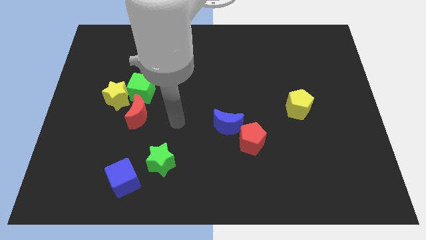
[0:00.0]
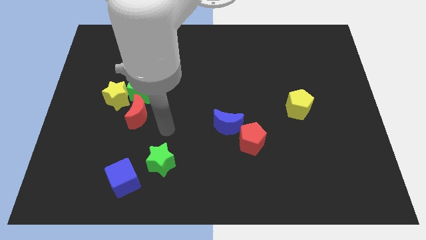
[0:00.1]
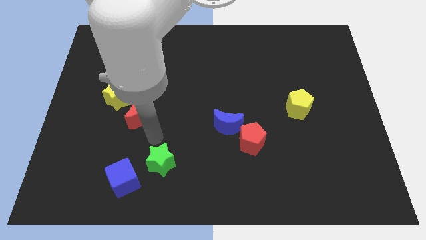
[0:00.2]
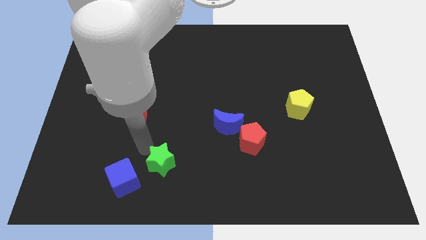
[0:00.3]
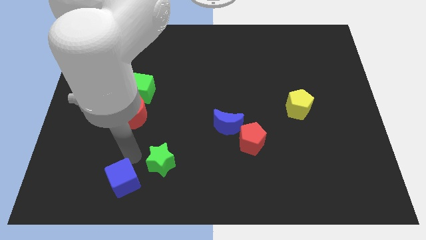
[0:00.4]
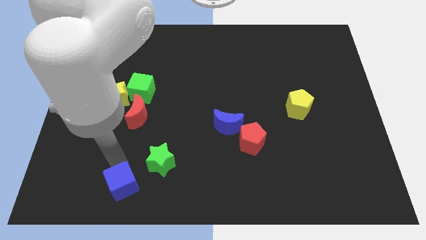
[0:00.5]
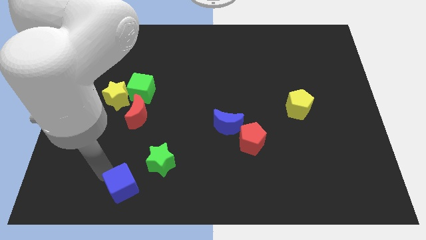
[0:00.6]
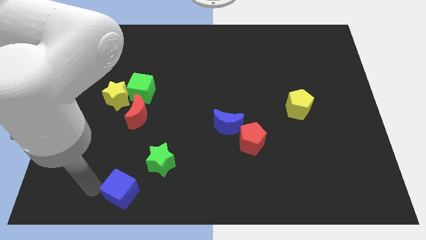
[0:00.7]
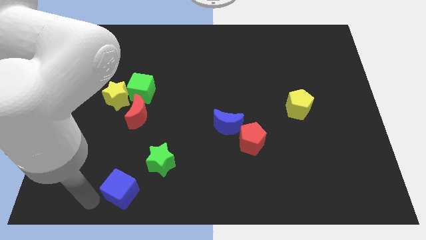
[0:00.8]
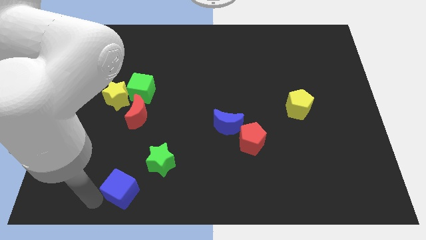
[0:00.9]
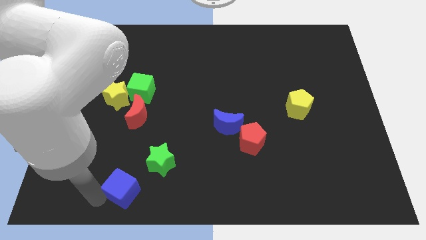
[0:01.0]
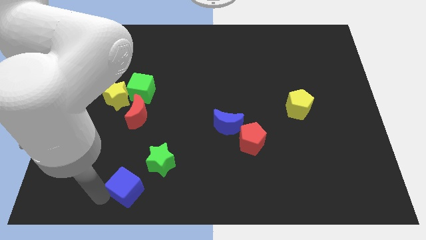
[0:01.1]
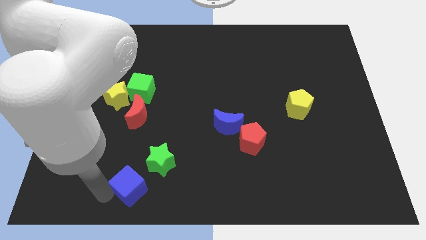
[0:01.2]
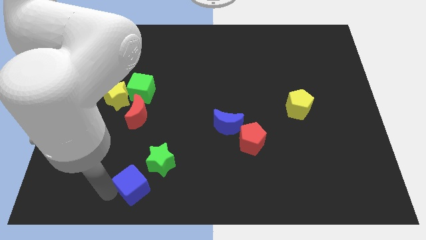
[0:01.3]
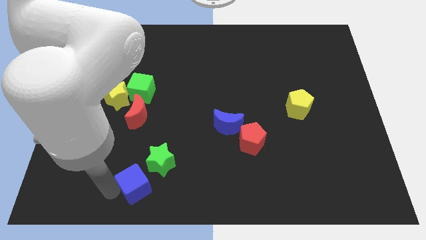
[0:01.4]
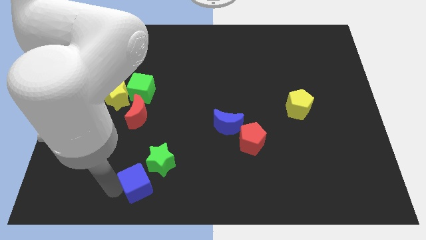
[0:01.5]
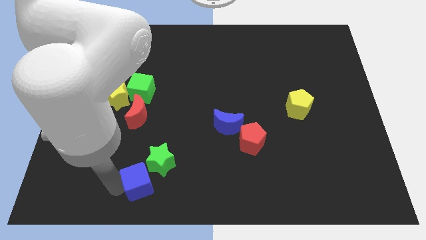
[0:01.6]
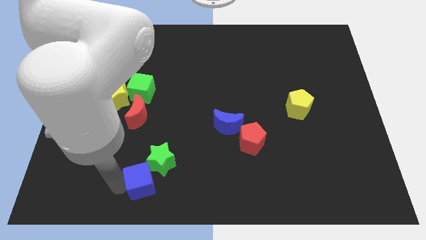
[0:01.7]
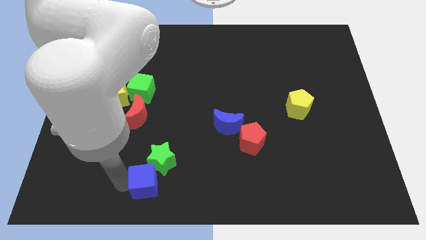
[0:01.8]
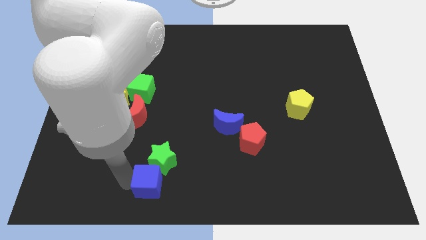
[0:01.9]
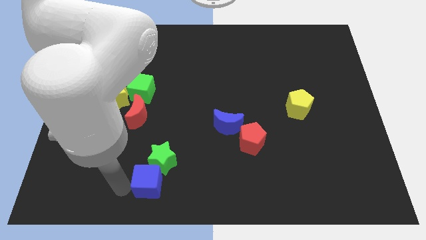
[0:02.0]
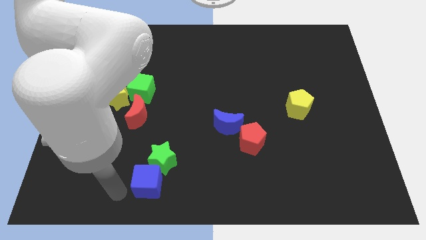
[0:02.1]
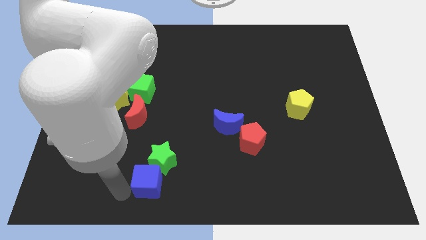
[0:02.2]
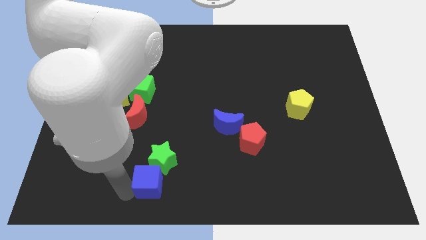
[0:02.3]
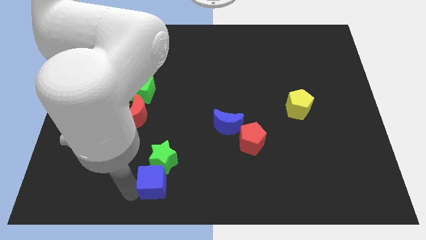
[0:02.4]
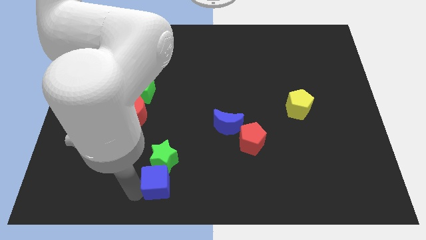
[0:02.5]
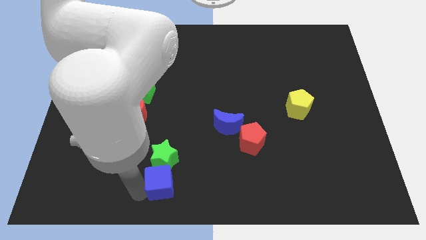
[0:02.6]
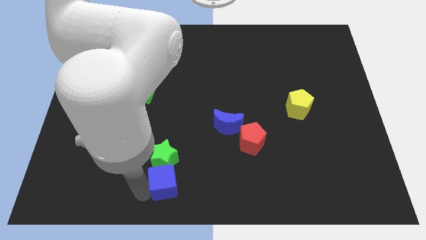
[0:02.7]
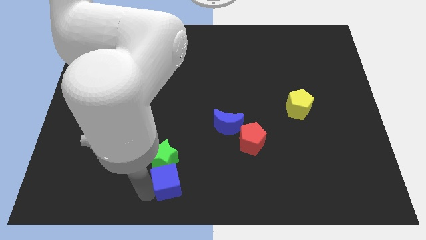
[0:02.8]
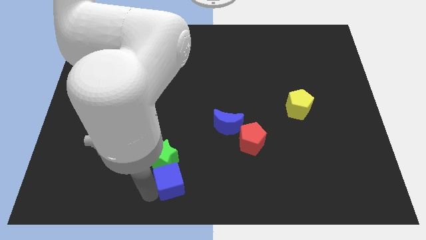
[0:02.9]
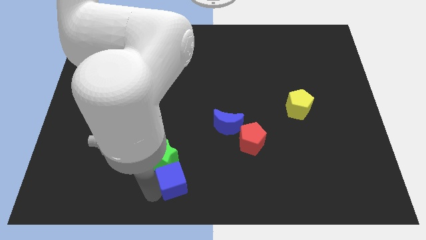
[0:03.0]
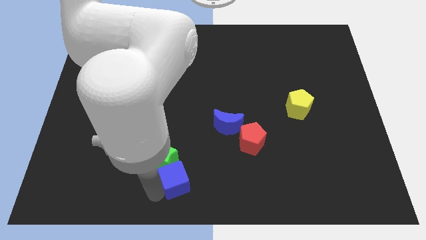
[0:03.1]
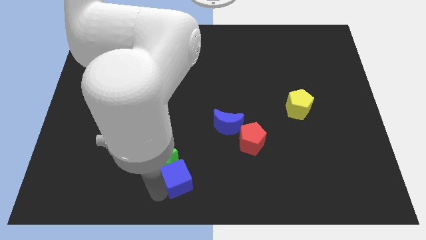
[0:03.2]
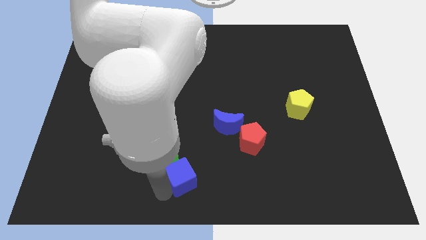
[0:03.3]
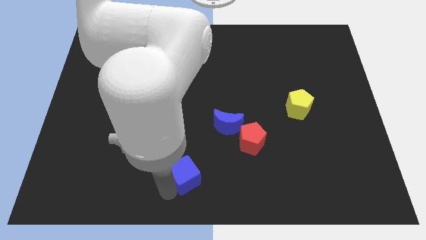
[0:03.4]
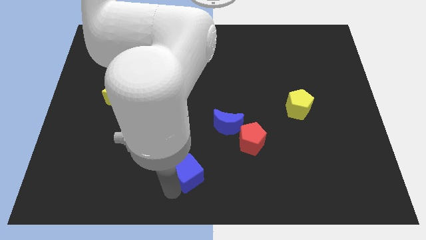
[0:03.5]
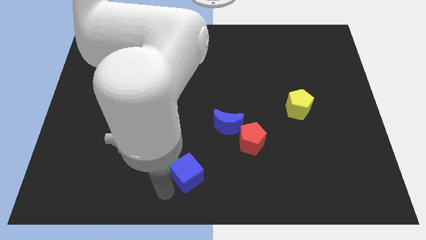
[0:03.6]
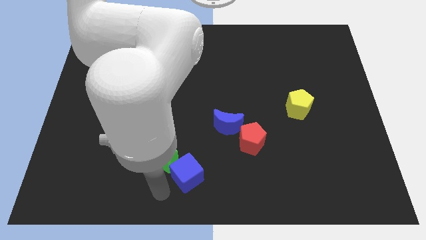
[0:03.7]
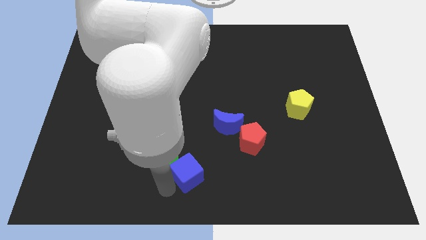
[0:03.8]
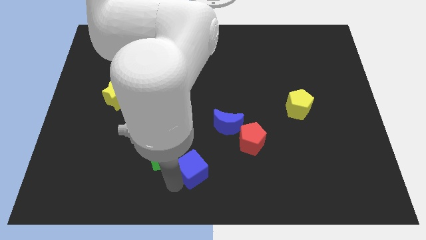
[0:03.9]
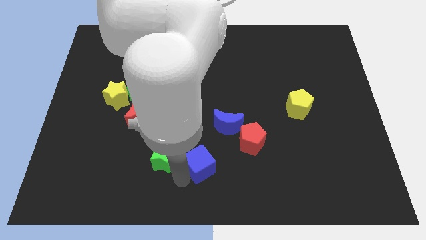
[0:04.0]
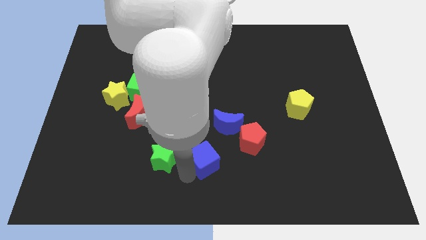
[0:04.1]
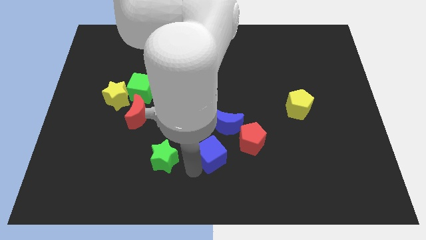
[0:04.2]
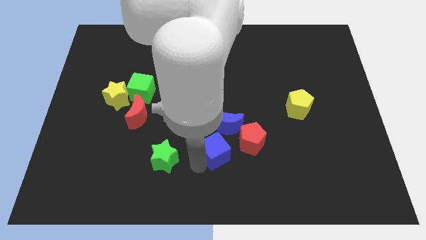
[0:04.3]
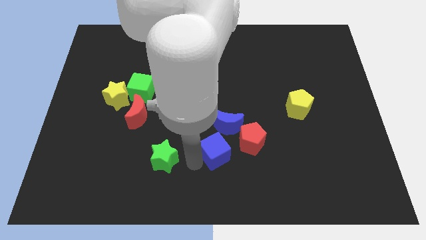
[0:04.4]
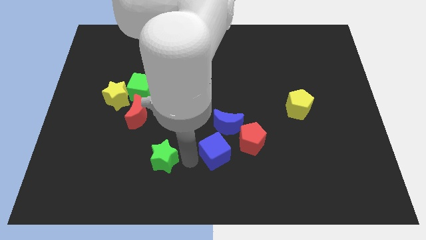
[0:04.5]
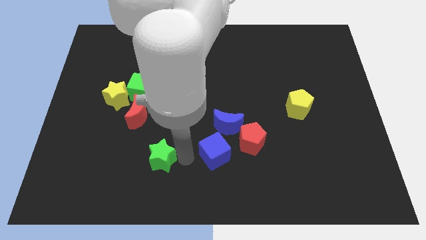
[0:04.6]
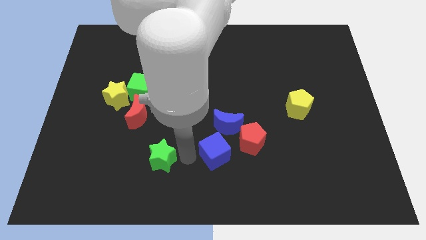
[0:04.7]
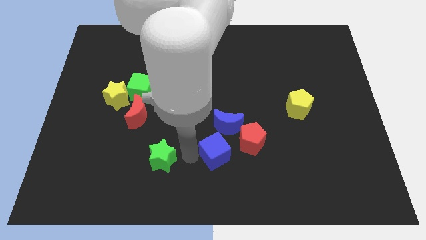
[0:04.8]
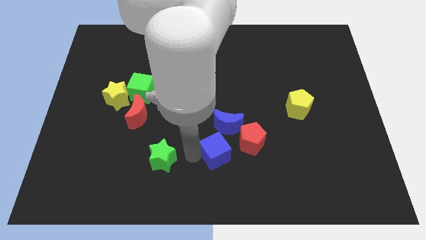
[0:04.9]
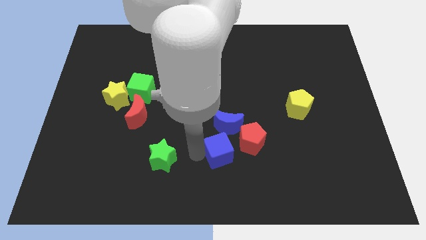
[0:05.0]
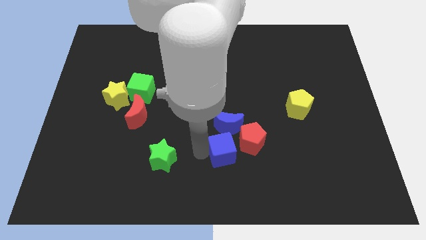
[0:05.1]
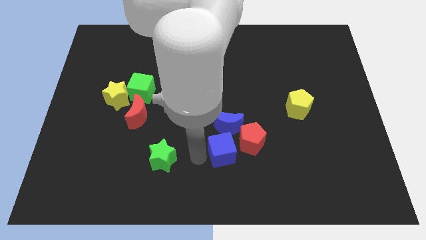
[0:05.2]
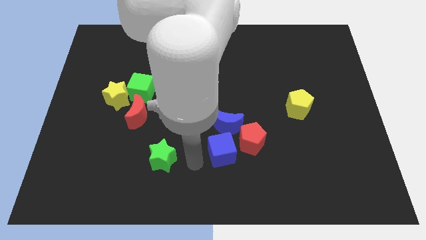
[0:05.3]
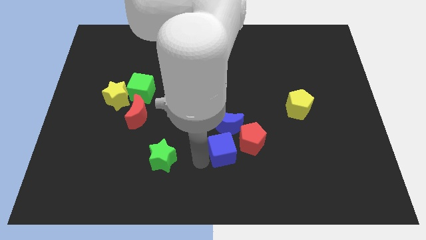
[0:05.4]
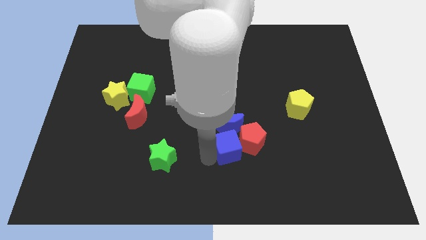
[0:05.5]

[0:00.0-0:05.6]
put the blue cube to the red pentagon

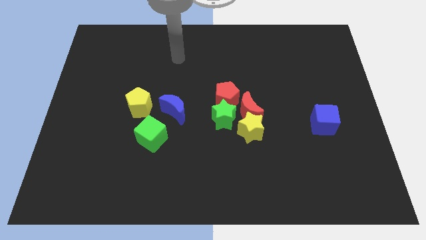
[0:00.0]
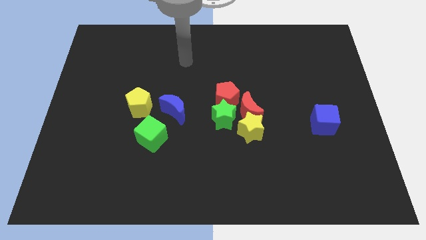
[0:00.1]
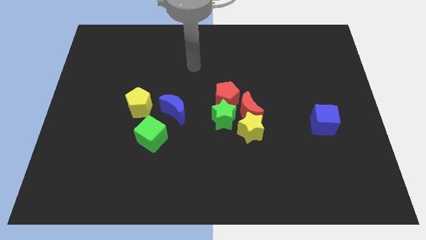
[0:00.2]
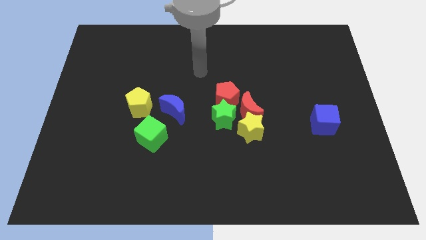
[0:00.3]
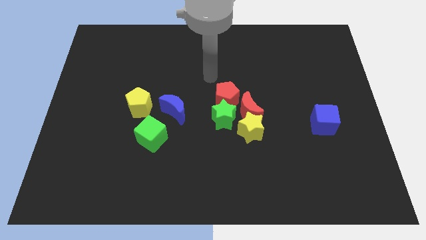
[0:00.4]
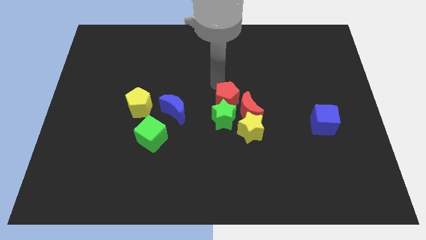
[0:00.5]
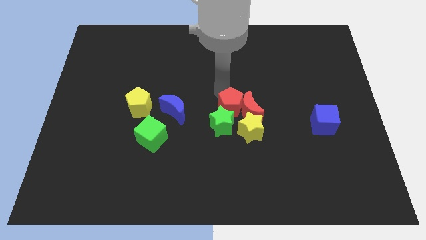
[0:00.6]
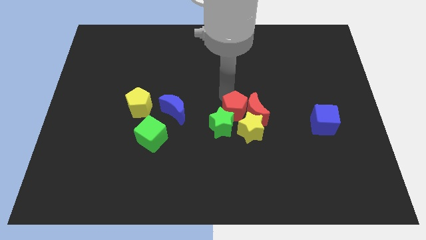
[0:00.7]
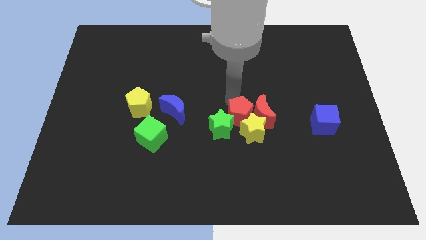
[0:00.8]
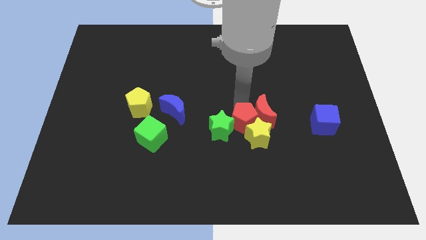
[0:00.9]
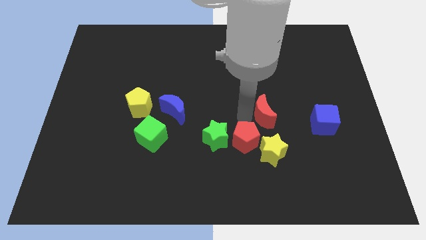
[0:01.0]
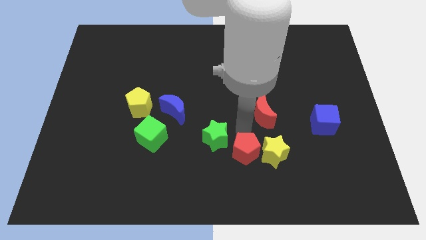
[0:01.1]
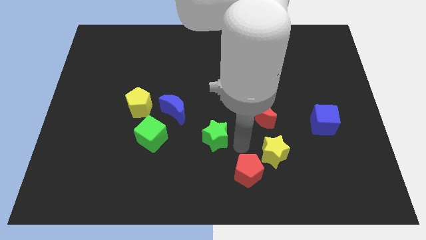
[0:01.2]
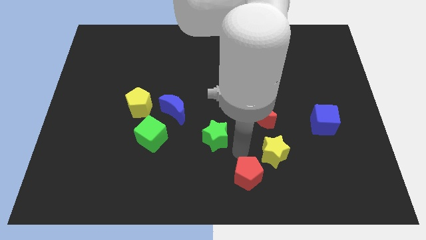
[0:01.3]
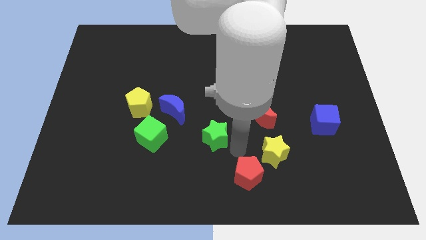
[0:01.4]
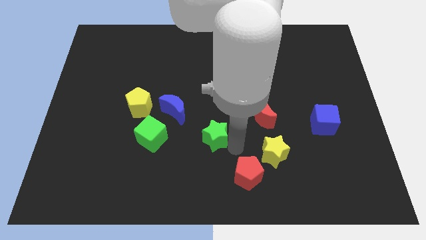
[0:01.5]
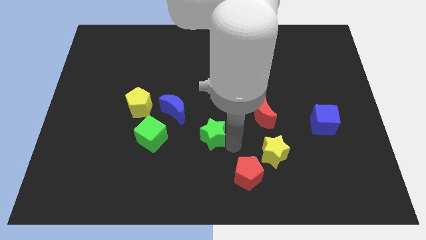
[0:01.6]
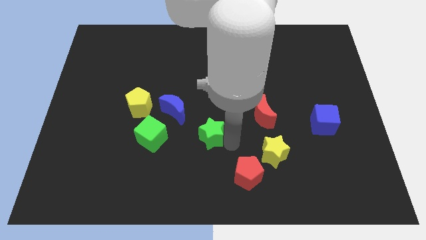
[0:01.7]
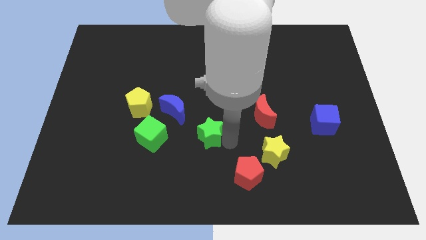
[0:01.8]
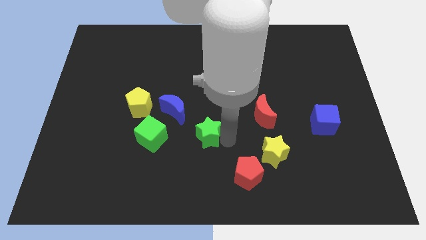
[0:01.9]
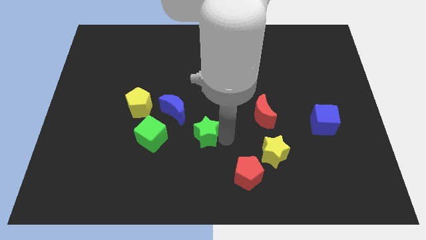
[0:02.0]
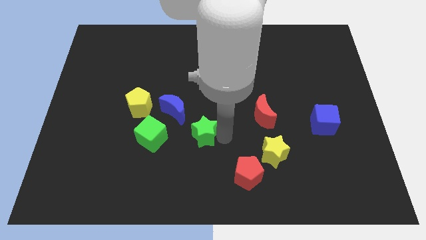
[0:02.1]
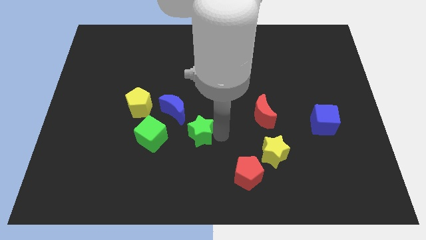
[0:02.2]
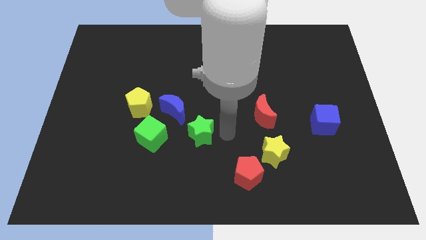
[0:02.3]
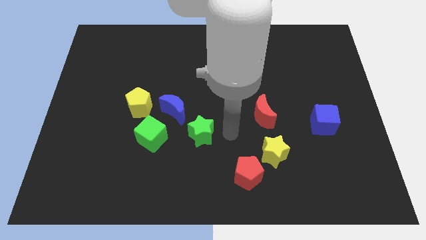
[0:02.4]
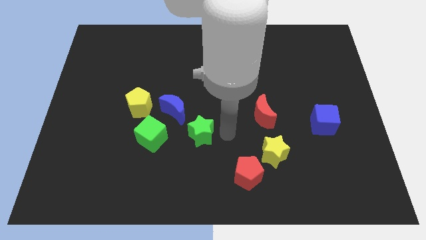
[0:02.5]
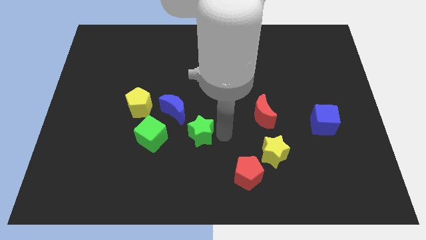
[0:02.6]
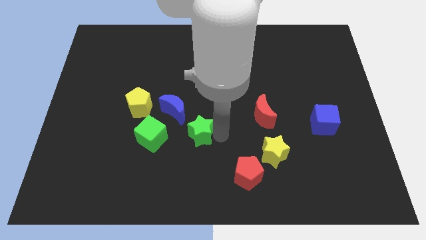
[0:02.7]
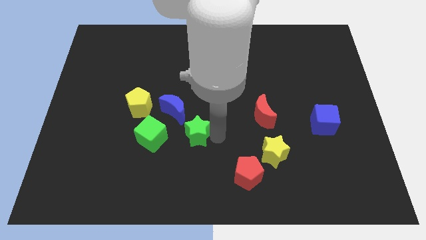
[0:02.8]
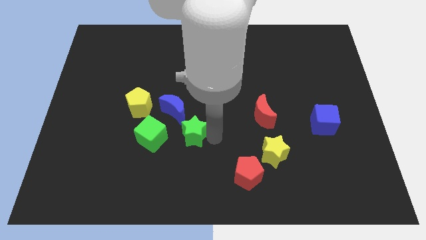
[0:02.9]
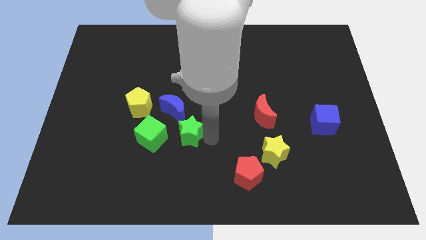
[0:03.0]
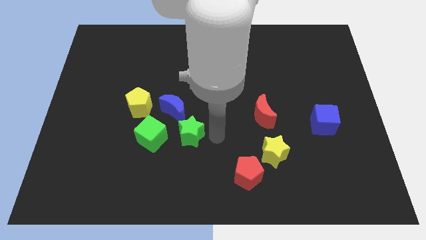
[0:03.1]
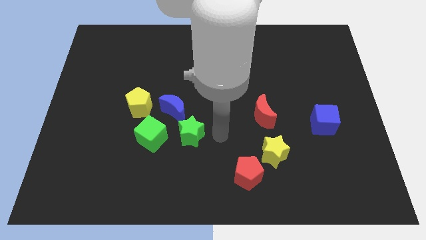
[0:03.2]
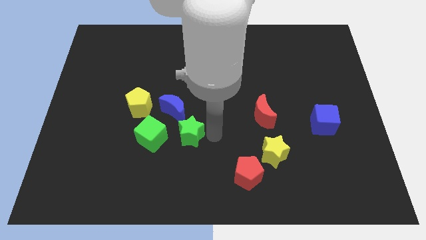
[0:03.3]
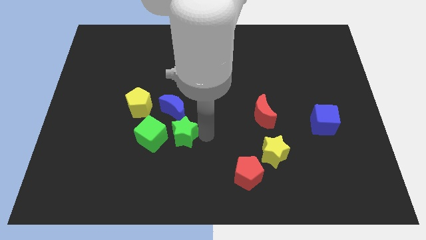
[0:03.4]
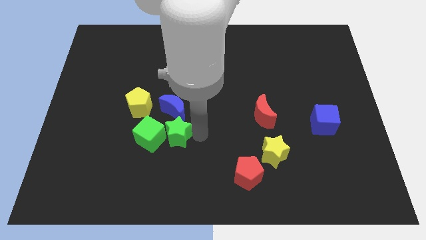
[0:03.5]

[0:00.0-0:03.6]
push the green star to the green cube
